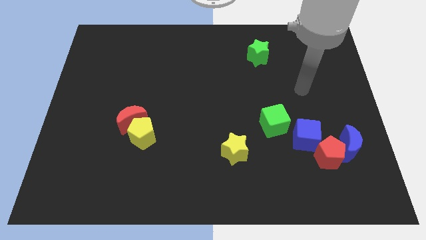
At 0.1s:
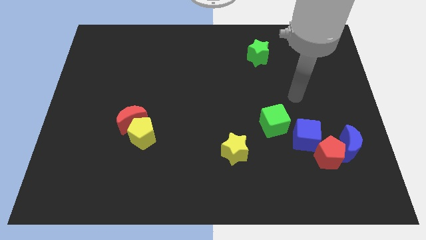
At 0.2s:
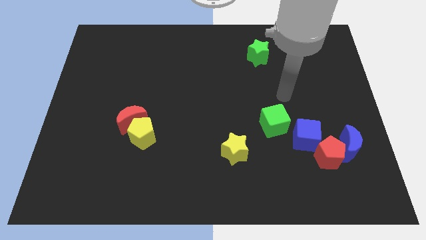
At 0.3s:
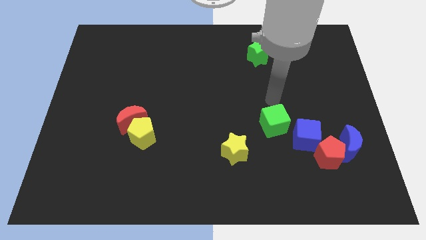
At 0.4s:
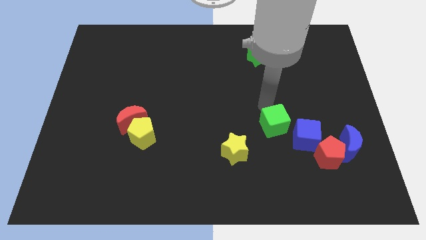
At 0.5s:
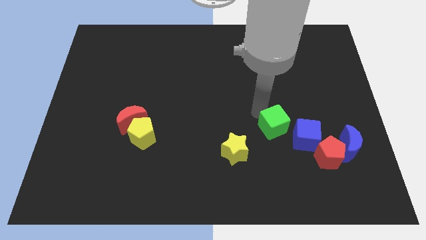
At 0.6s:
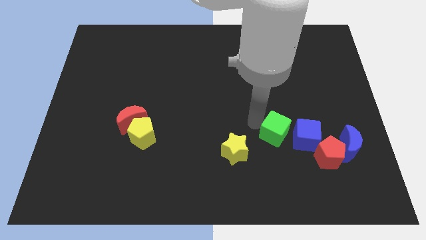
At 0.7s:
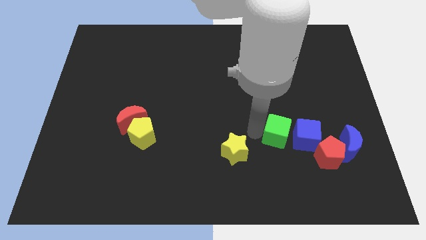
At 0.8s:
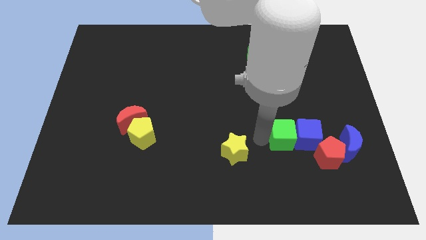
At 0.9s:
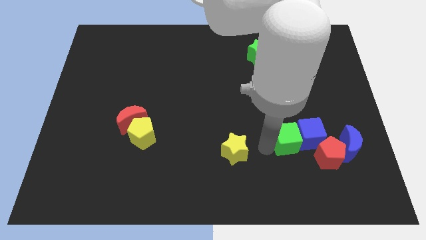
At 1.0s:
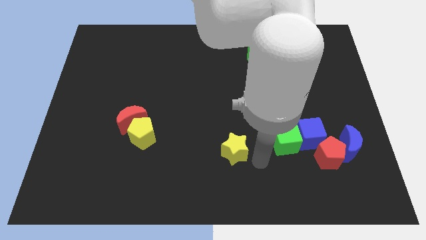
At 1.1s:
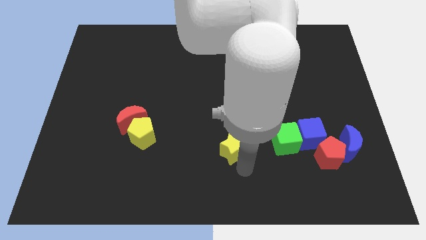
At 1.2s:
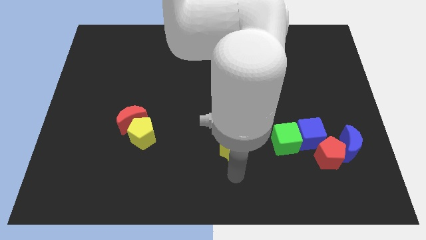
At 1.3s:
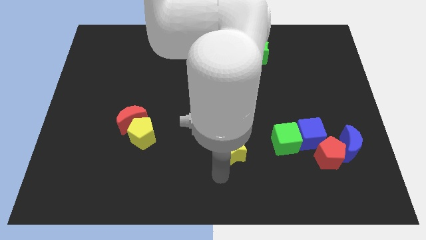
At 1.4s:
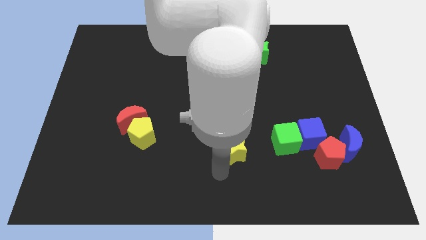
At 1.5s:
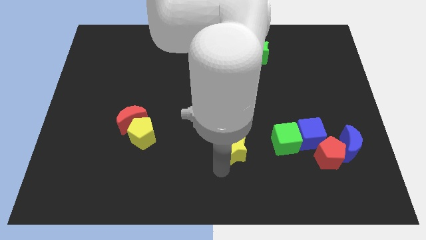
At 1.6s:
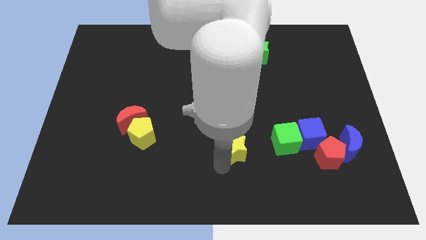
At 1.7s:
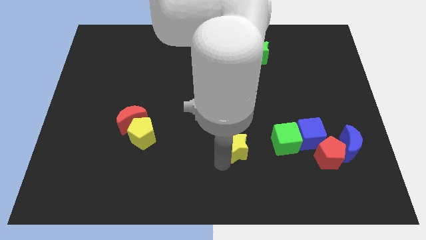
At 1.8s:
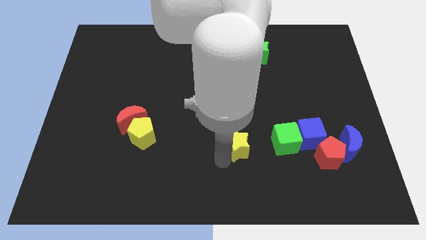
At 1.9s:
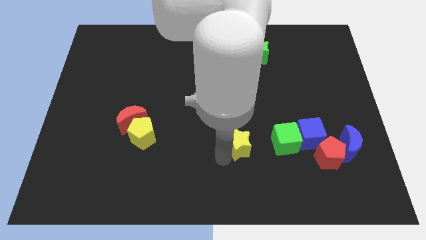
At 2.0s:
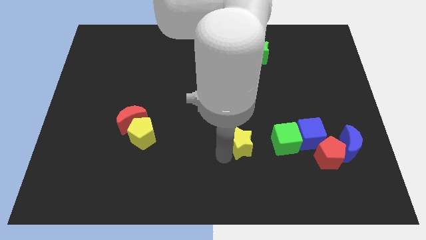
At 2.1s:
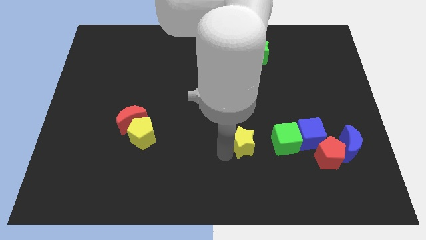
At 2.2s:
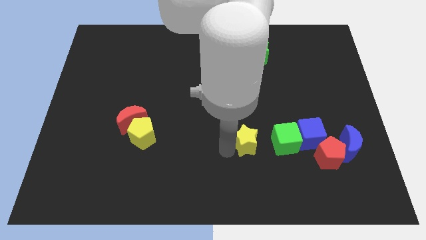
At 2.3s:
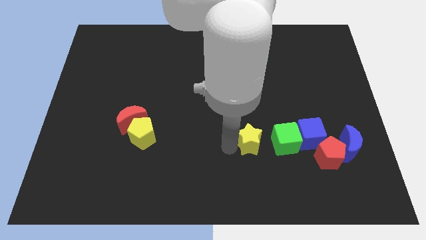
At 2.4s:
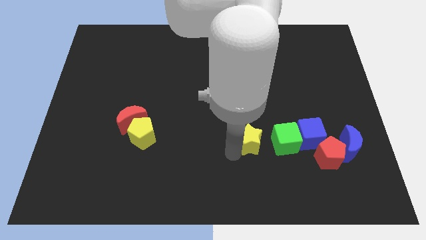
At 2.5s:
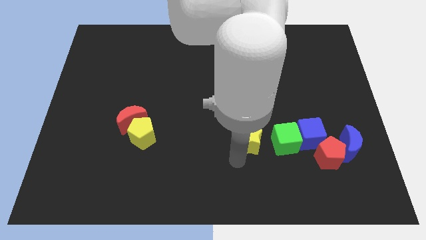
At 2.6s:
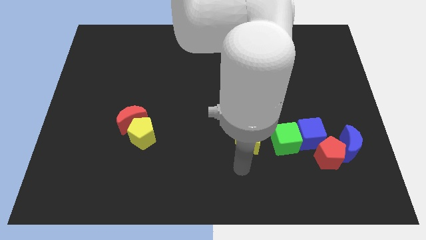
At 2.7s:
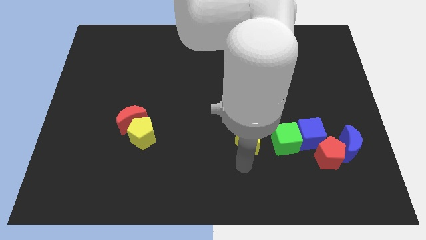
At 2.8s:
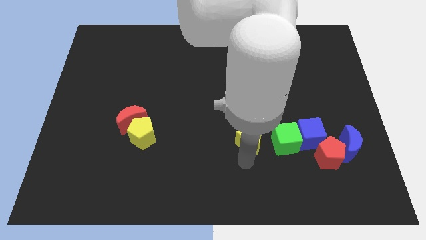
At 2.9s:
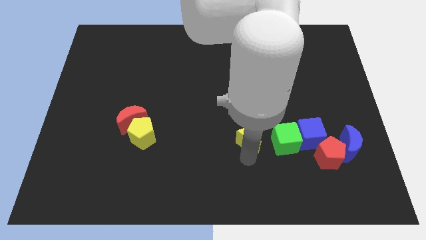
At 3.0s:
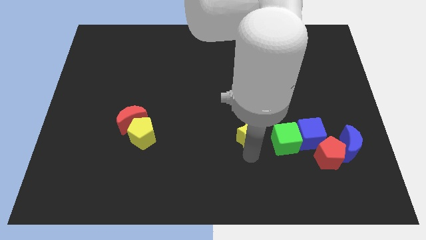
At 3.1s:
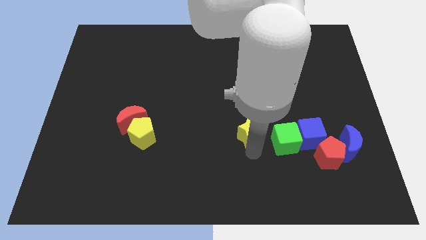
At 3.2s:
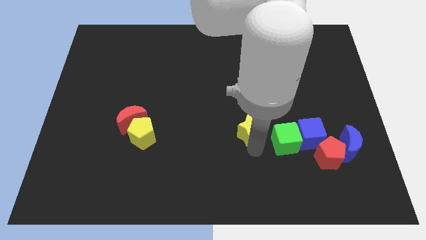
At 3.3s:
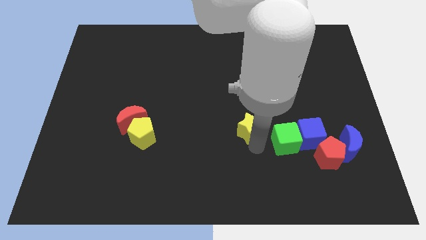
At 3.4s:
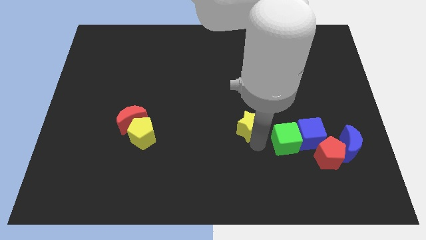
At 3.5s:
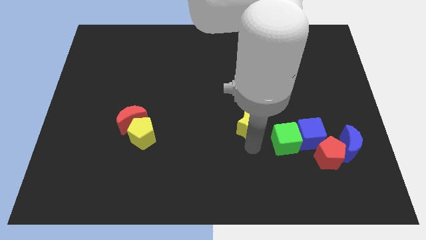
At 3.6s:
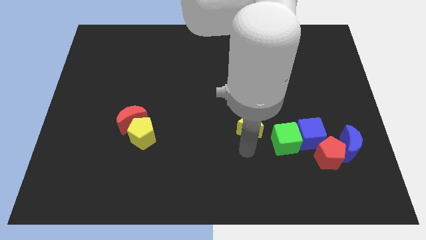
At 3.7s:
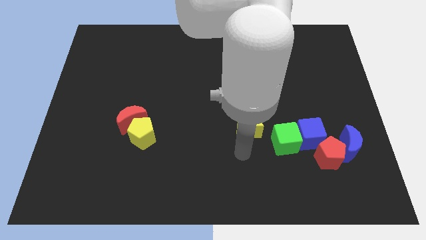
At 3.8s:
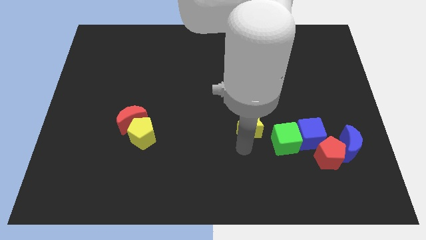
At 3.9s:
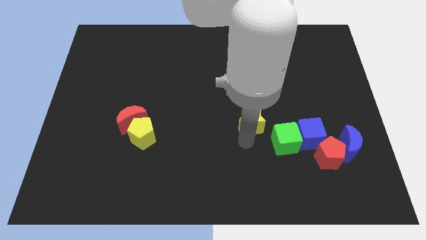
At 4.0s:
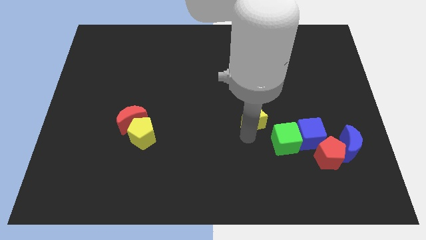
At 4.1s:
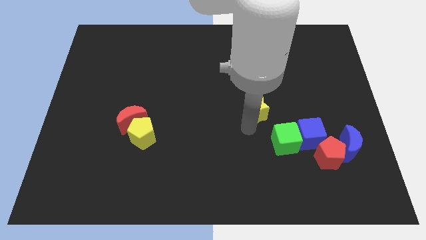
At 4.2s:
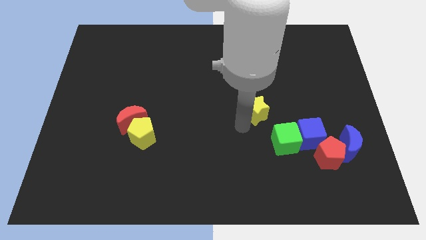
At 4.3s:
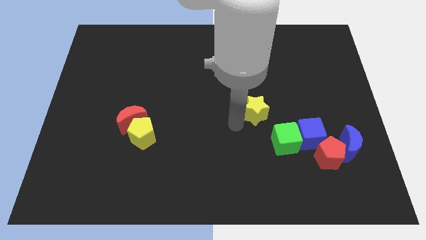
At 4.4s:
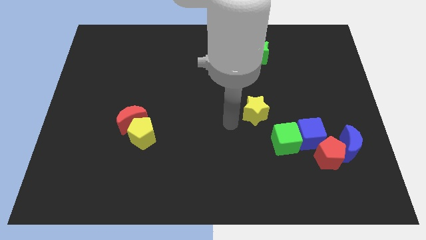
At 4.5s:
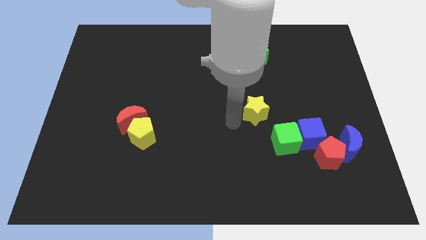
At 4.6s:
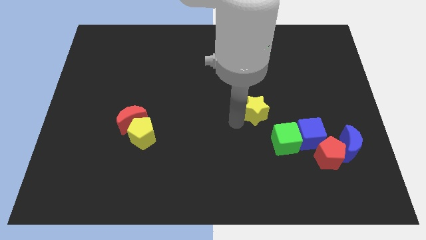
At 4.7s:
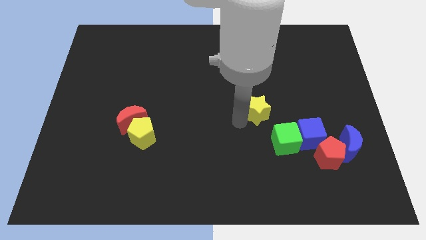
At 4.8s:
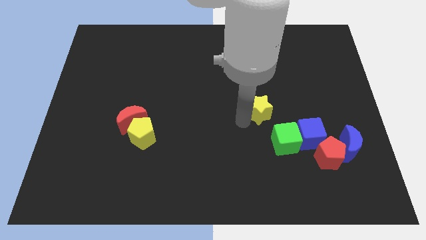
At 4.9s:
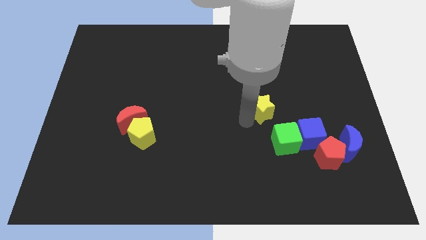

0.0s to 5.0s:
put the yellow star to the top of the green cube

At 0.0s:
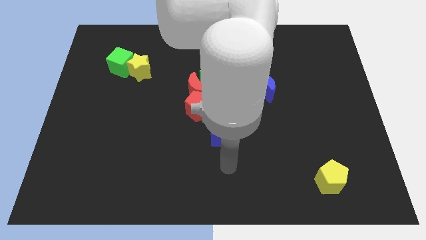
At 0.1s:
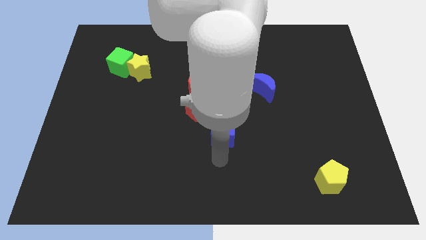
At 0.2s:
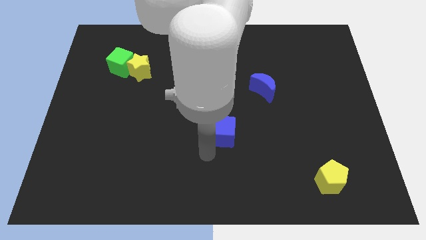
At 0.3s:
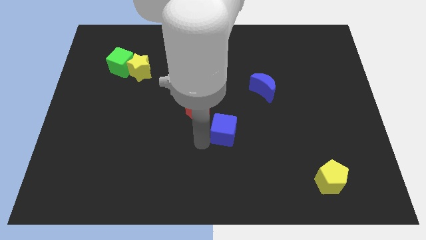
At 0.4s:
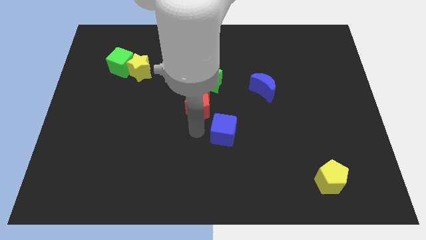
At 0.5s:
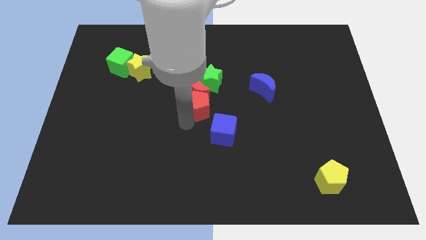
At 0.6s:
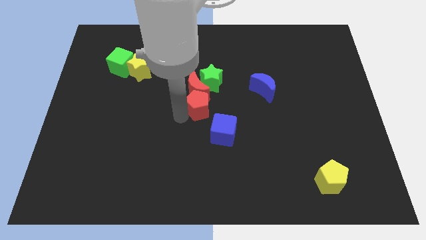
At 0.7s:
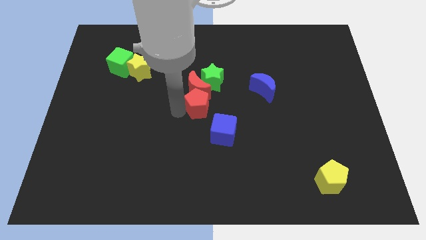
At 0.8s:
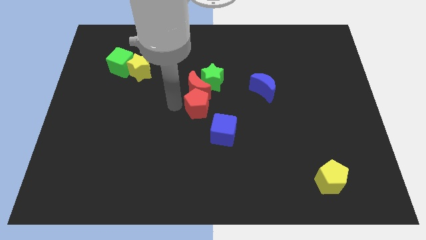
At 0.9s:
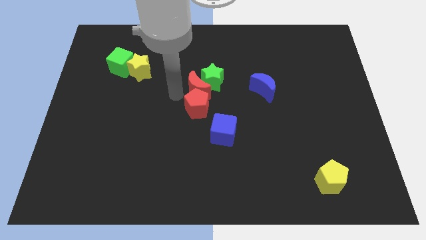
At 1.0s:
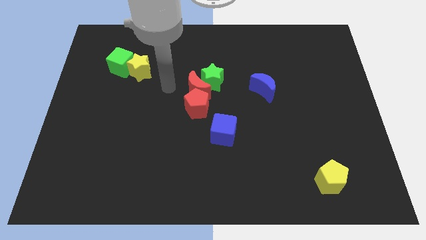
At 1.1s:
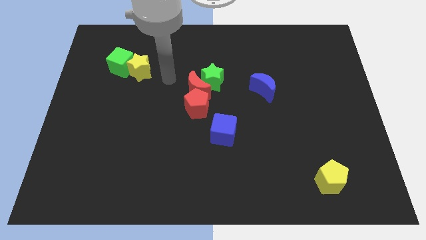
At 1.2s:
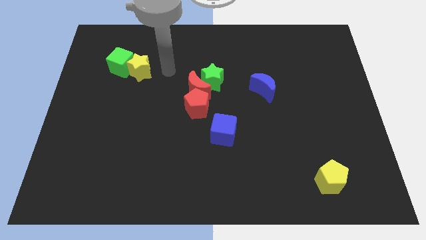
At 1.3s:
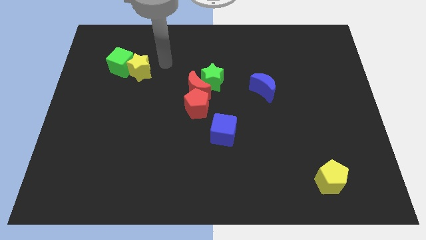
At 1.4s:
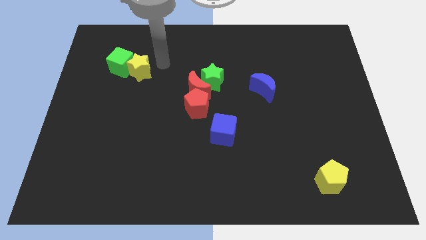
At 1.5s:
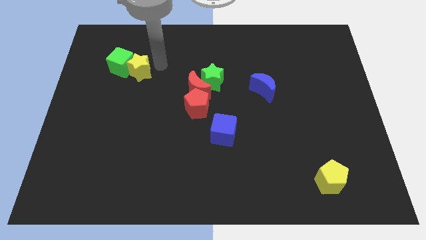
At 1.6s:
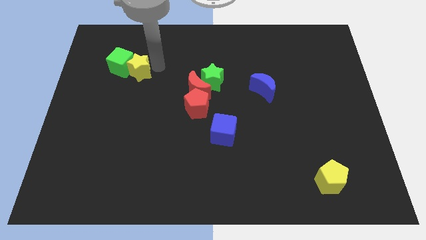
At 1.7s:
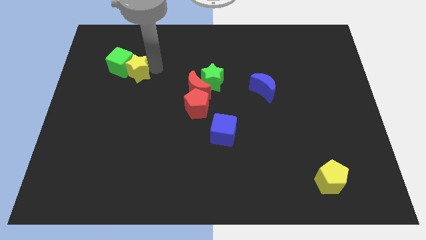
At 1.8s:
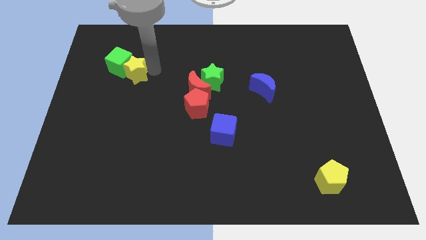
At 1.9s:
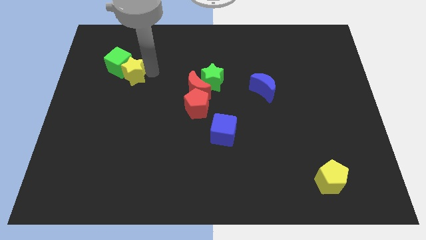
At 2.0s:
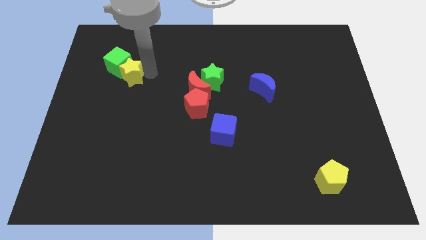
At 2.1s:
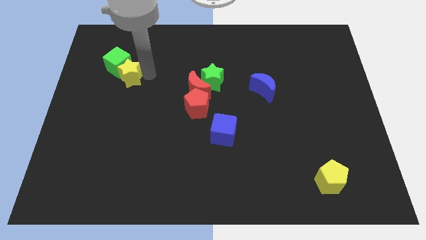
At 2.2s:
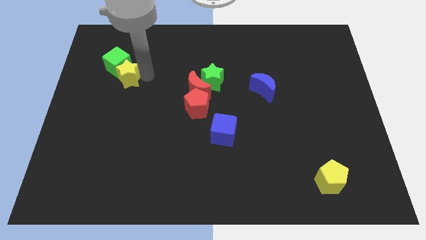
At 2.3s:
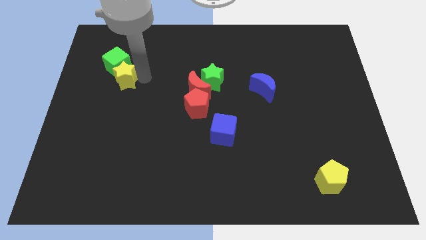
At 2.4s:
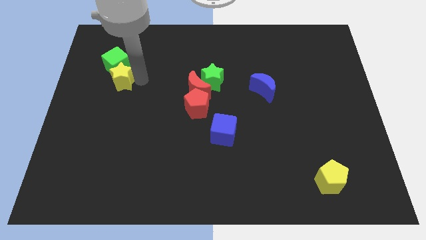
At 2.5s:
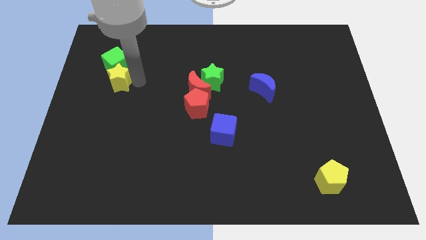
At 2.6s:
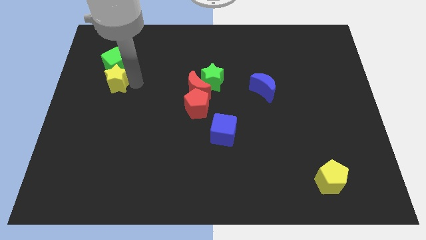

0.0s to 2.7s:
push the yellow star to the bottom left side of the green cube
